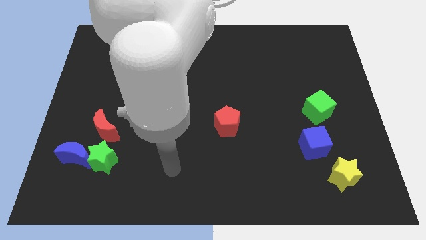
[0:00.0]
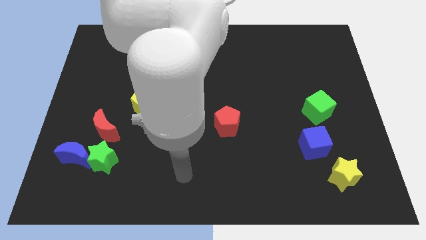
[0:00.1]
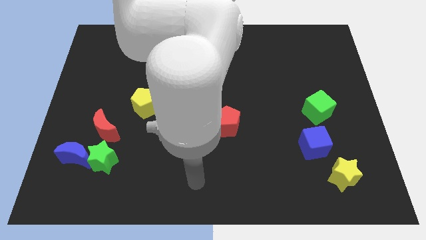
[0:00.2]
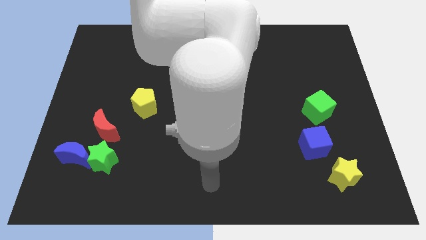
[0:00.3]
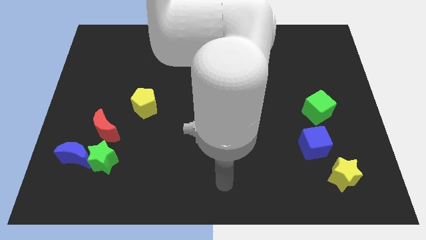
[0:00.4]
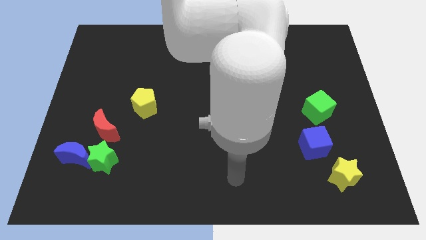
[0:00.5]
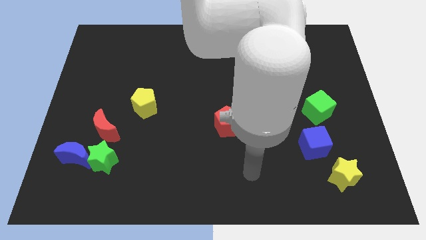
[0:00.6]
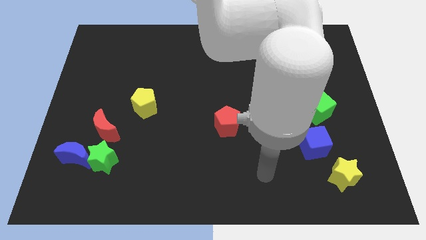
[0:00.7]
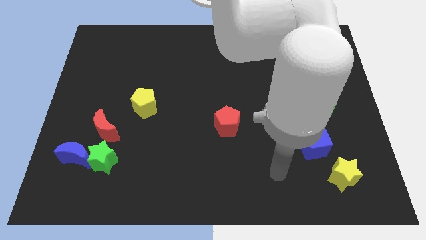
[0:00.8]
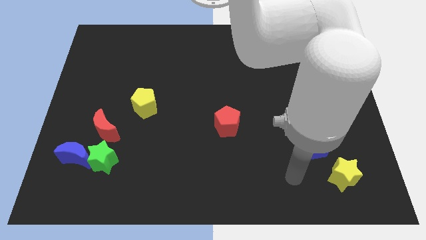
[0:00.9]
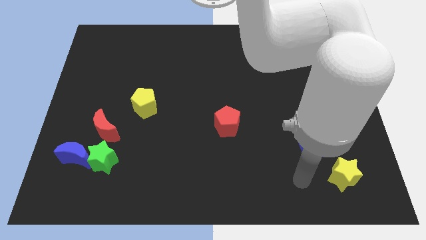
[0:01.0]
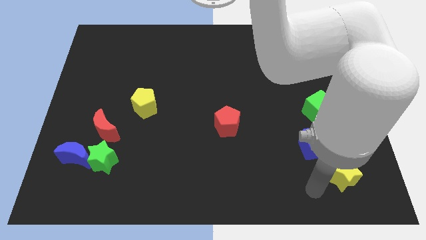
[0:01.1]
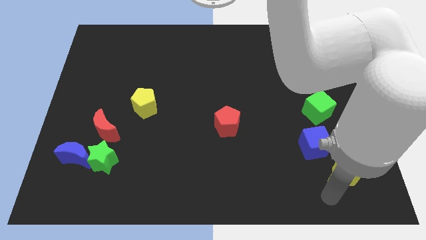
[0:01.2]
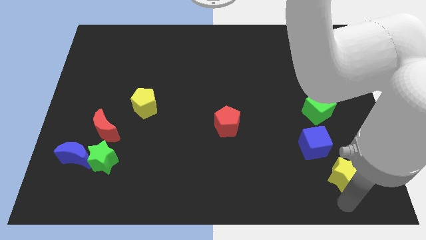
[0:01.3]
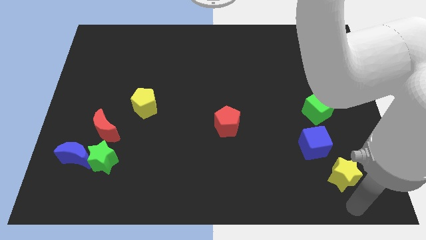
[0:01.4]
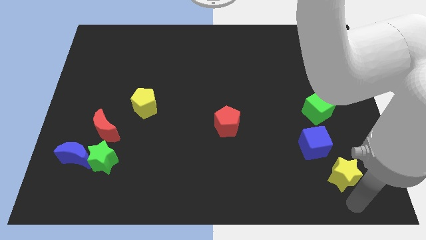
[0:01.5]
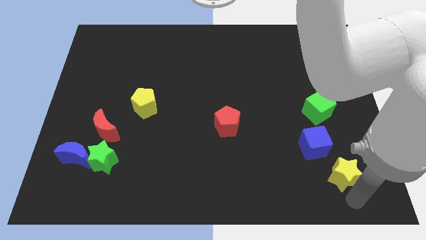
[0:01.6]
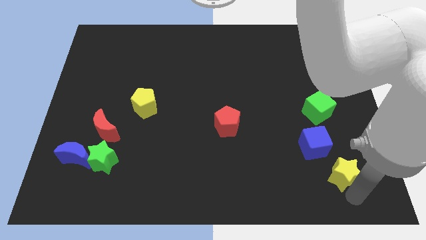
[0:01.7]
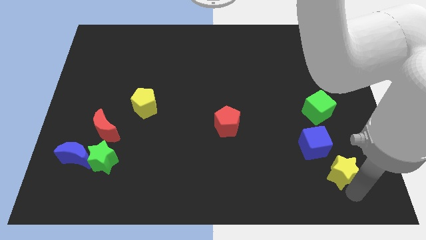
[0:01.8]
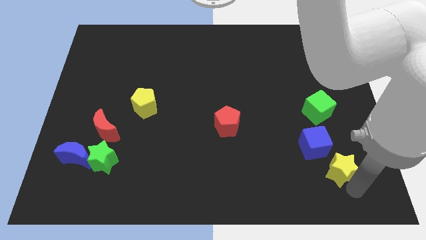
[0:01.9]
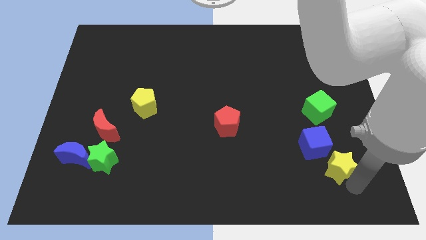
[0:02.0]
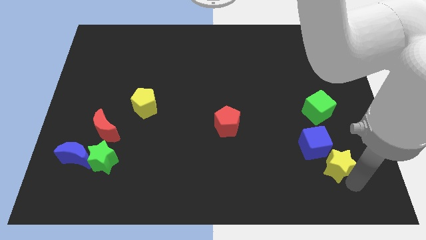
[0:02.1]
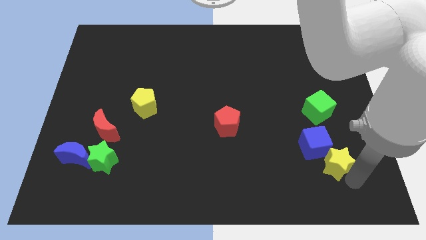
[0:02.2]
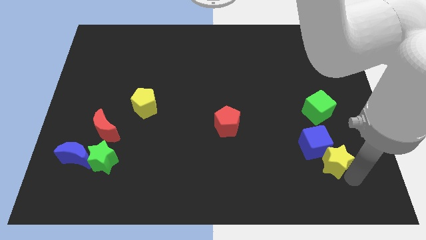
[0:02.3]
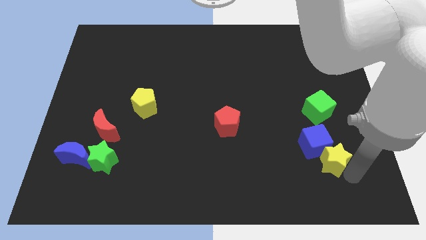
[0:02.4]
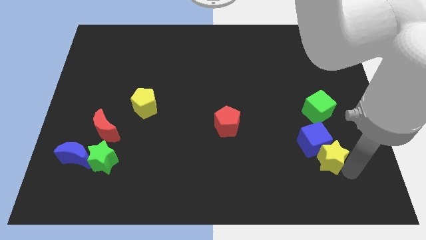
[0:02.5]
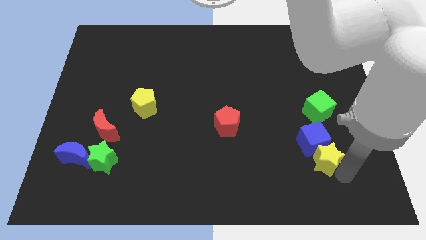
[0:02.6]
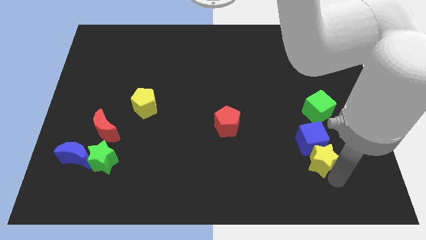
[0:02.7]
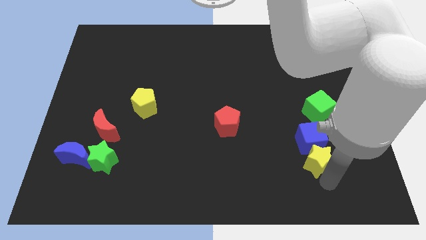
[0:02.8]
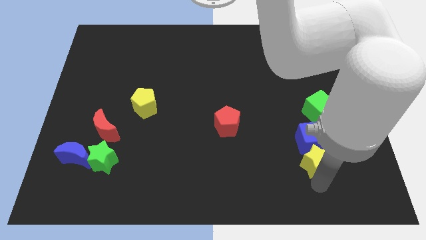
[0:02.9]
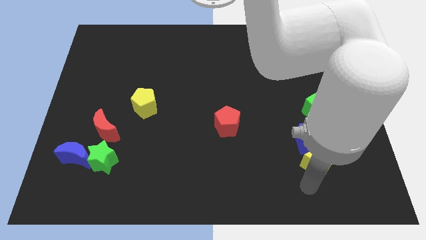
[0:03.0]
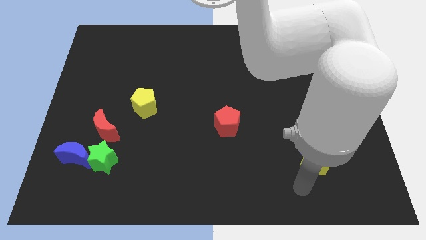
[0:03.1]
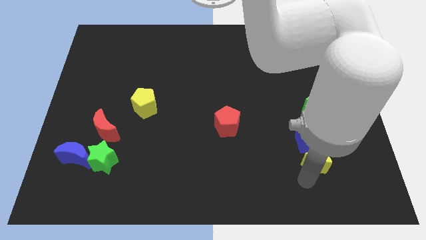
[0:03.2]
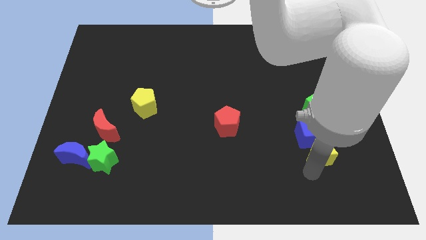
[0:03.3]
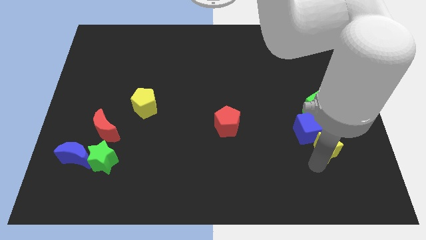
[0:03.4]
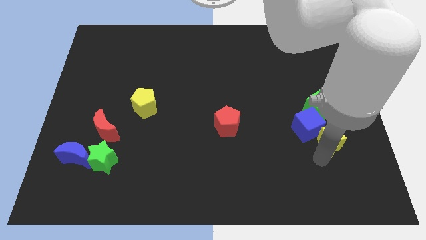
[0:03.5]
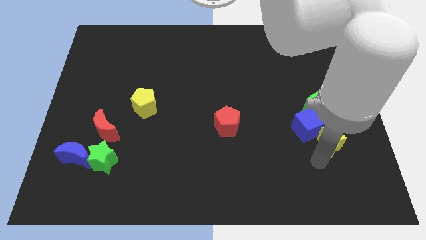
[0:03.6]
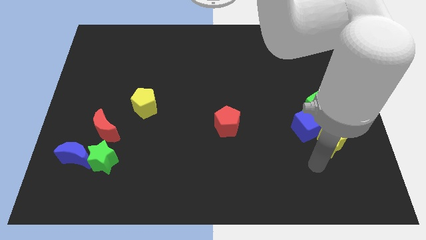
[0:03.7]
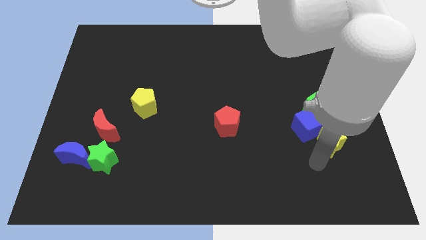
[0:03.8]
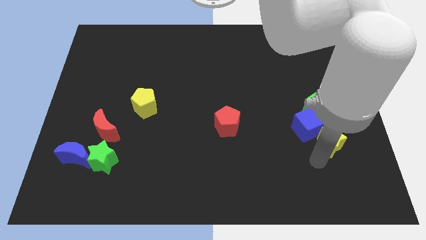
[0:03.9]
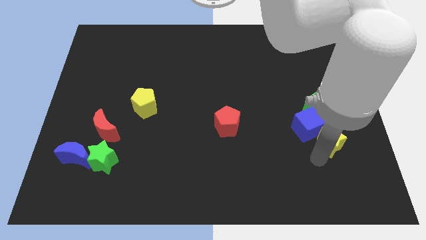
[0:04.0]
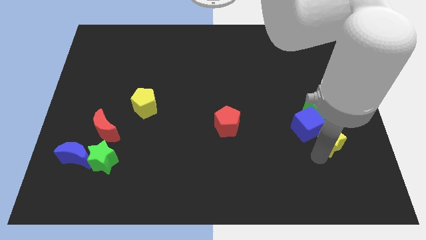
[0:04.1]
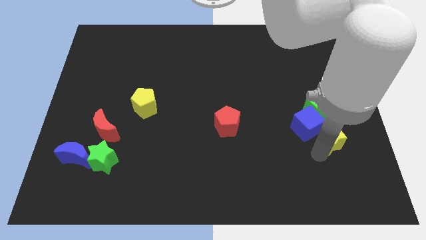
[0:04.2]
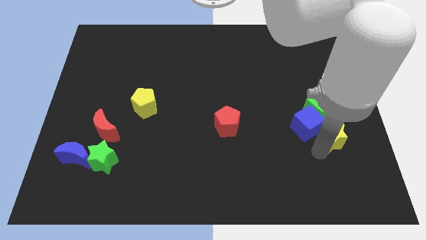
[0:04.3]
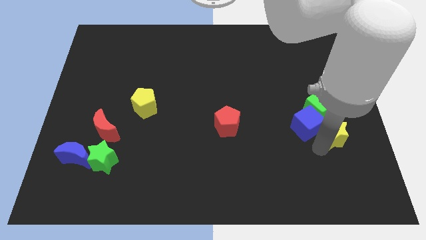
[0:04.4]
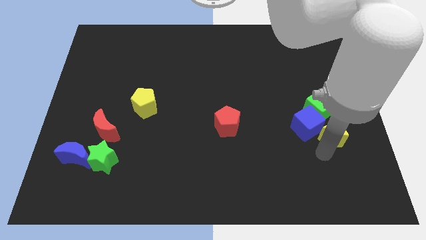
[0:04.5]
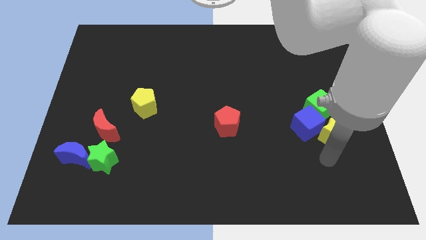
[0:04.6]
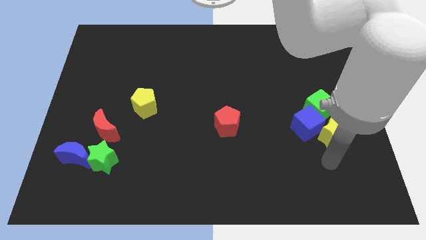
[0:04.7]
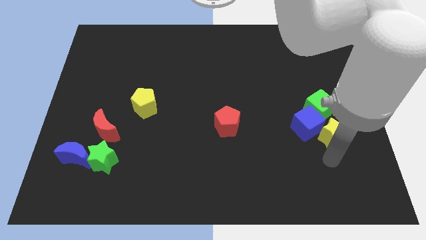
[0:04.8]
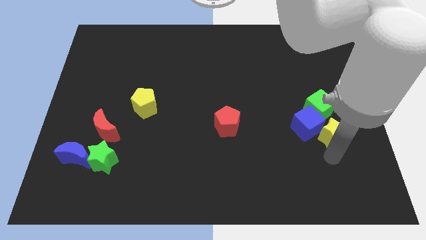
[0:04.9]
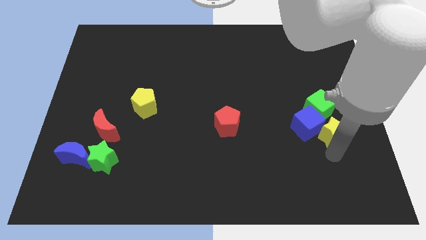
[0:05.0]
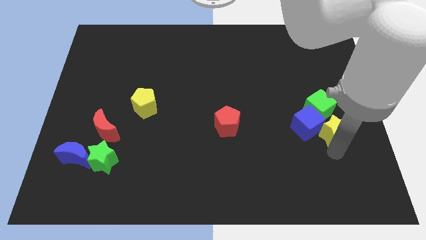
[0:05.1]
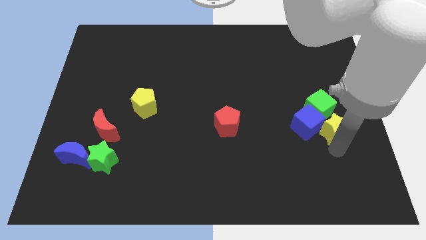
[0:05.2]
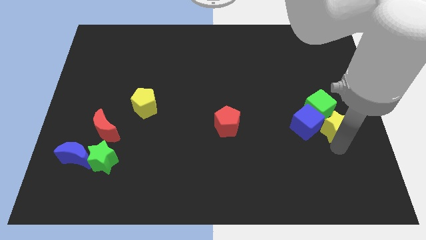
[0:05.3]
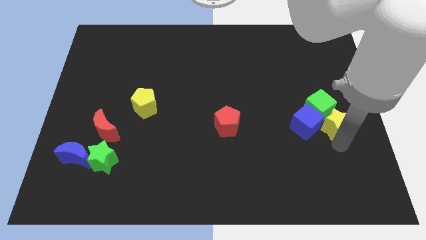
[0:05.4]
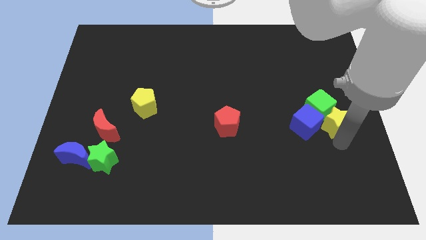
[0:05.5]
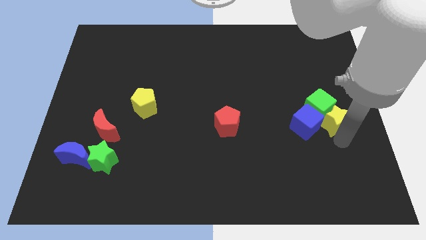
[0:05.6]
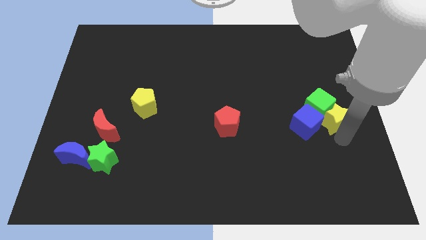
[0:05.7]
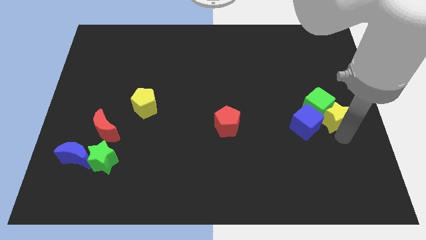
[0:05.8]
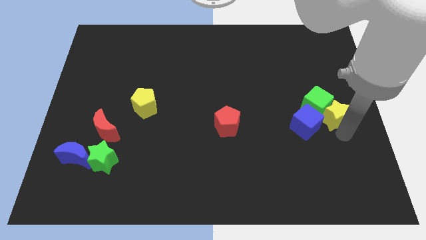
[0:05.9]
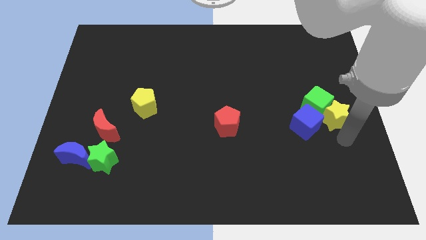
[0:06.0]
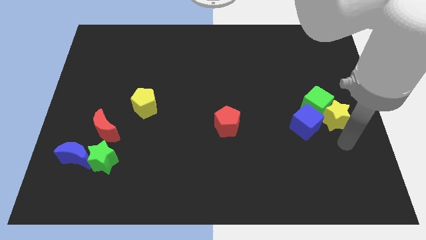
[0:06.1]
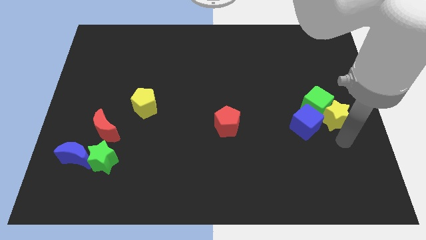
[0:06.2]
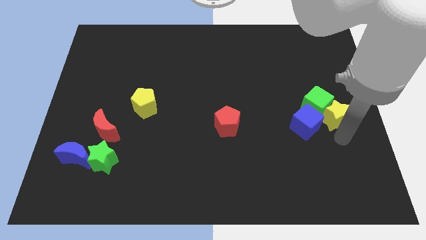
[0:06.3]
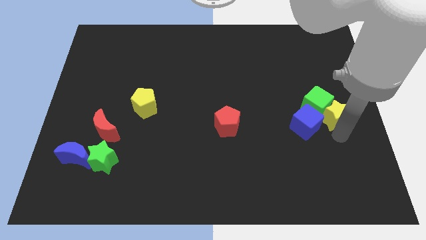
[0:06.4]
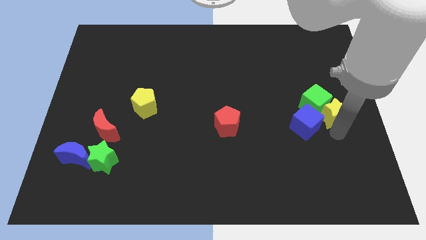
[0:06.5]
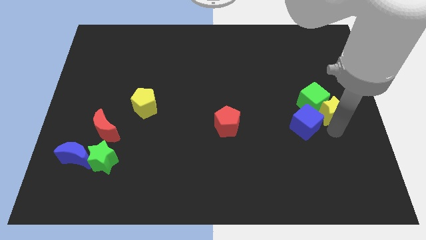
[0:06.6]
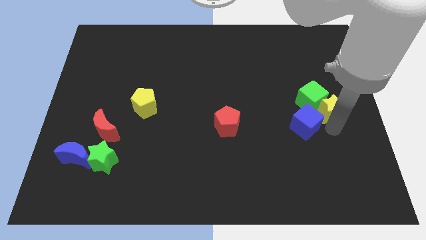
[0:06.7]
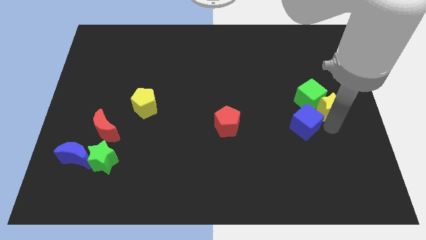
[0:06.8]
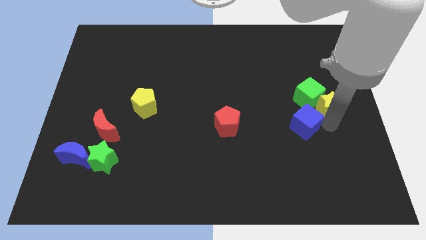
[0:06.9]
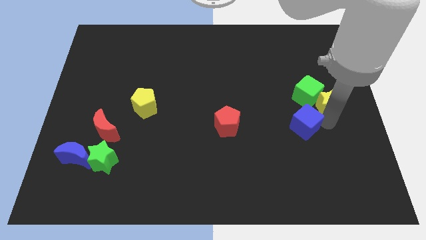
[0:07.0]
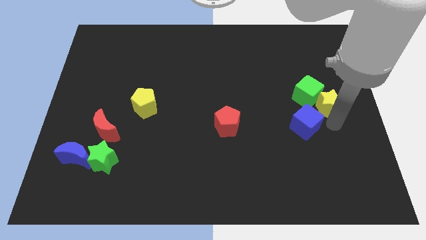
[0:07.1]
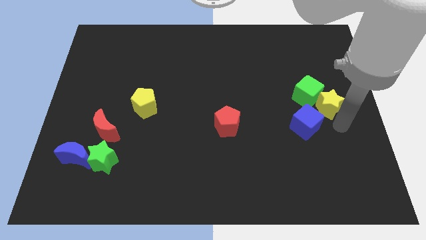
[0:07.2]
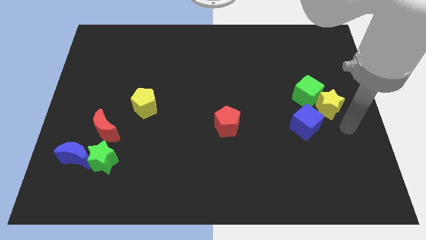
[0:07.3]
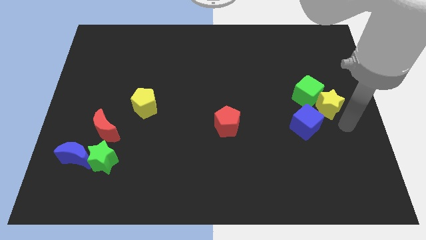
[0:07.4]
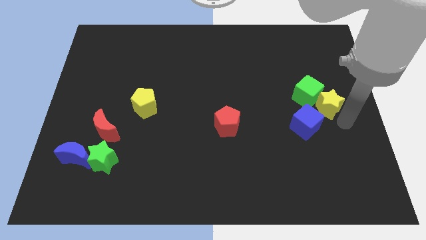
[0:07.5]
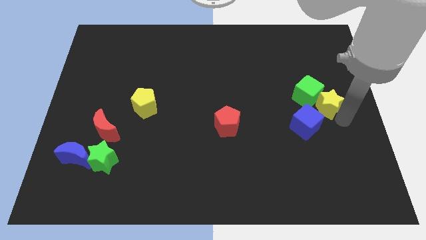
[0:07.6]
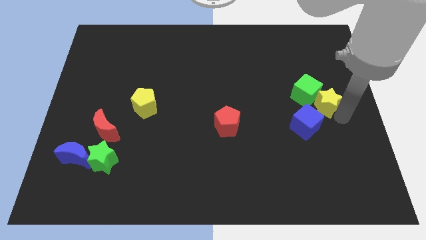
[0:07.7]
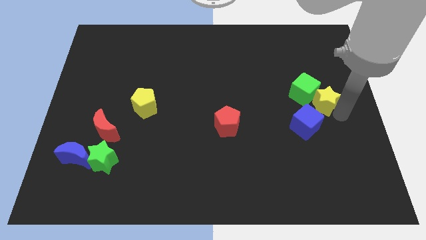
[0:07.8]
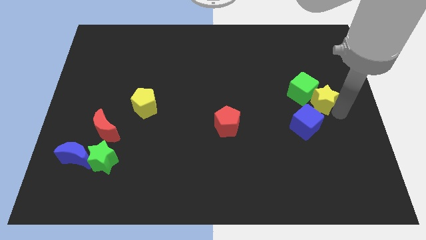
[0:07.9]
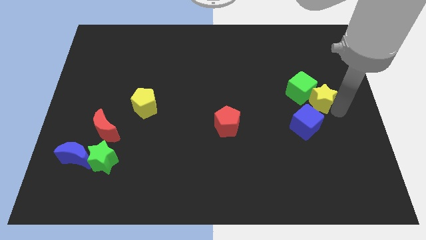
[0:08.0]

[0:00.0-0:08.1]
push the yellow star above the blue cube
